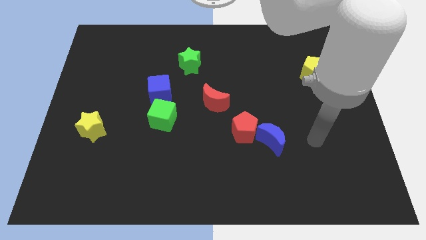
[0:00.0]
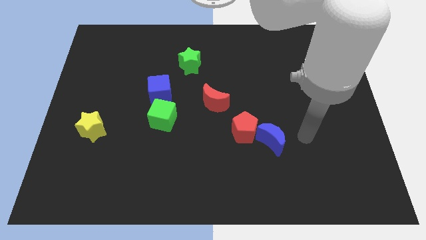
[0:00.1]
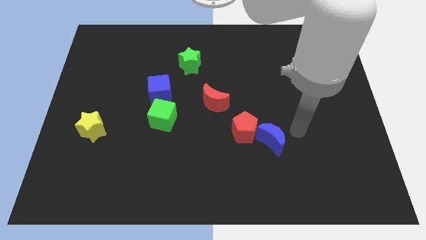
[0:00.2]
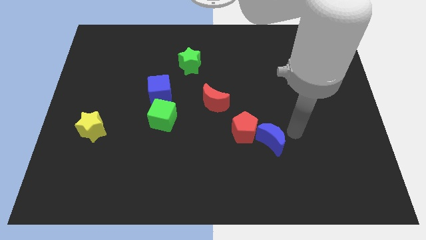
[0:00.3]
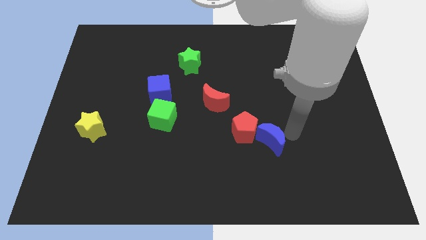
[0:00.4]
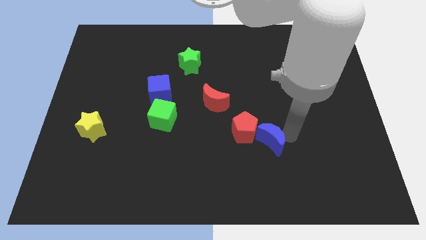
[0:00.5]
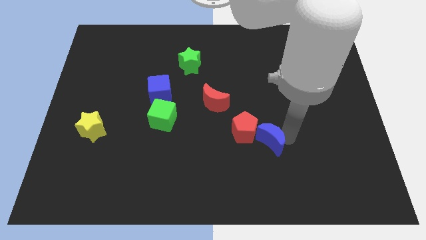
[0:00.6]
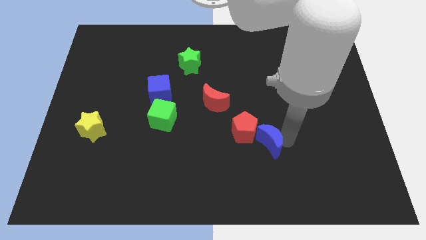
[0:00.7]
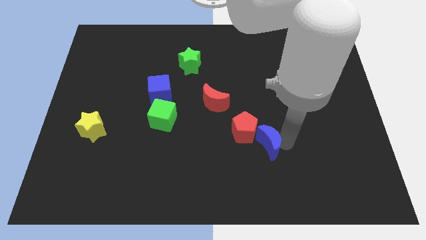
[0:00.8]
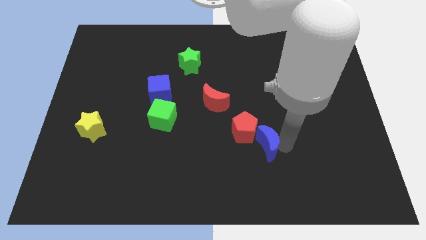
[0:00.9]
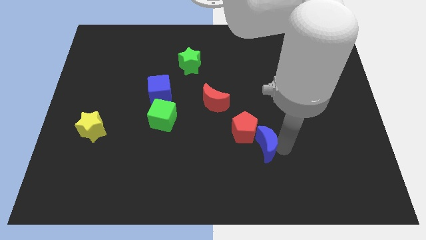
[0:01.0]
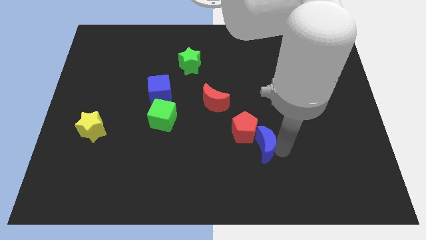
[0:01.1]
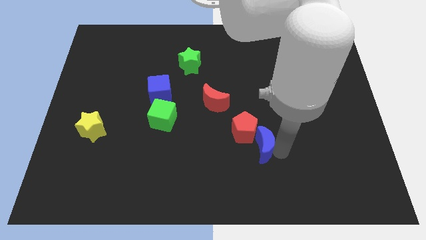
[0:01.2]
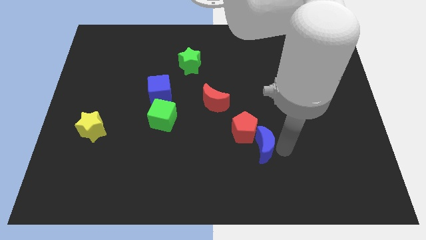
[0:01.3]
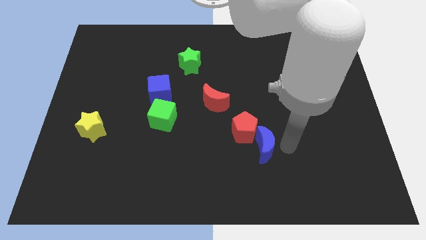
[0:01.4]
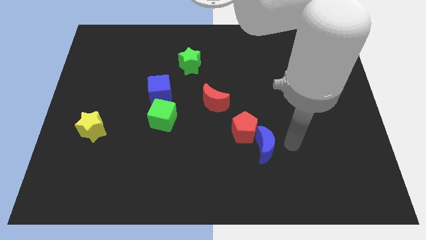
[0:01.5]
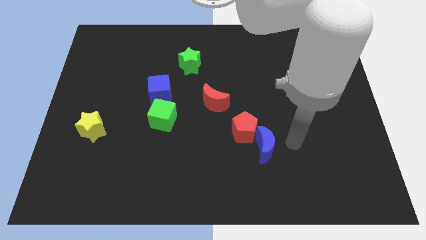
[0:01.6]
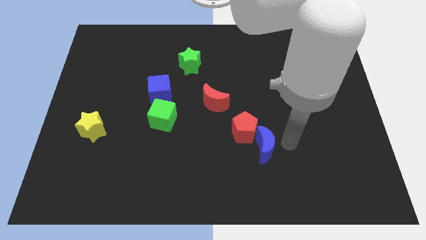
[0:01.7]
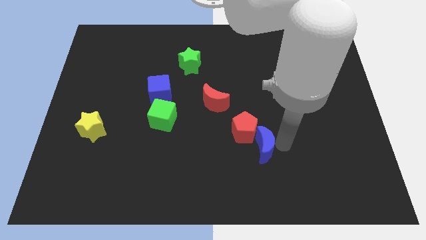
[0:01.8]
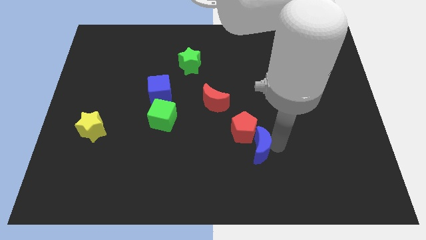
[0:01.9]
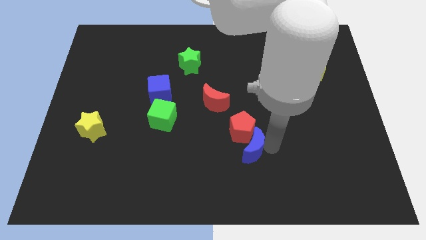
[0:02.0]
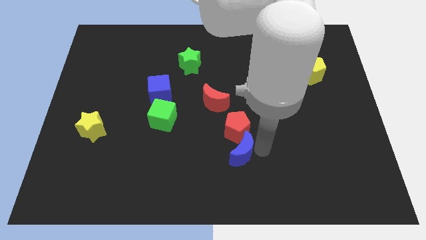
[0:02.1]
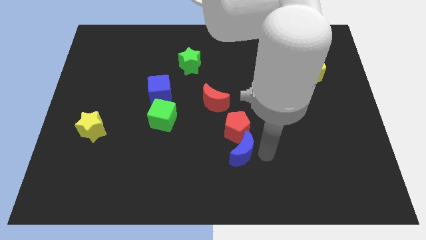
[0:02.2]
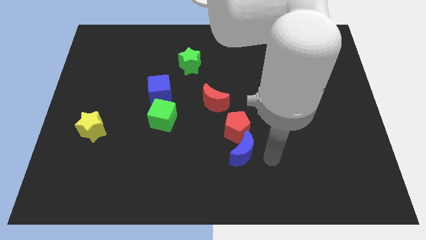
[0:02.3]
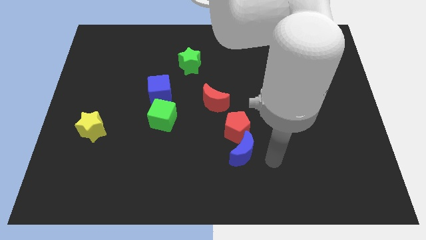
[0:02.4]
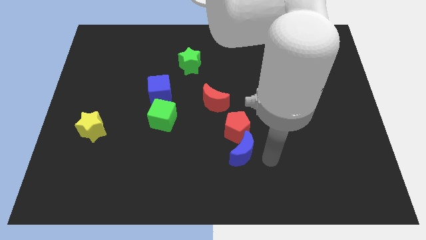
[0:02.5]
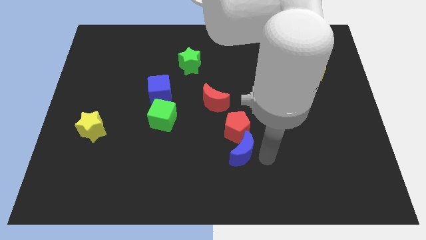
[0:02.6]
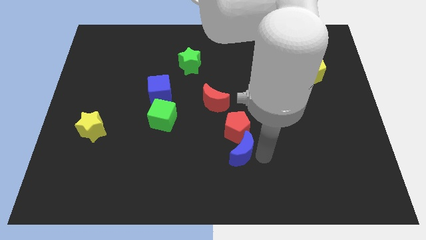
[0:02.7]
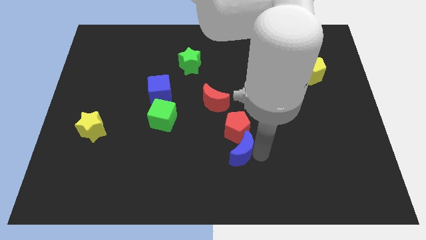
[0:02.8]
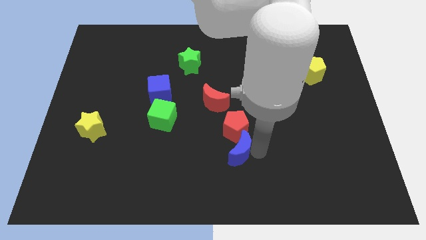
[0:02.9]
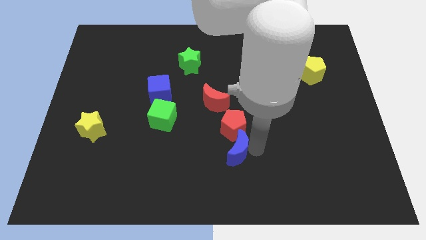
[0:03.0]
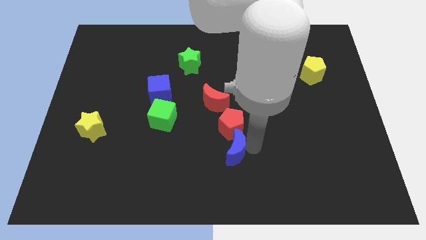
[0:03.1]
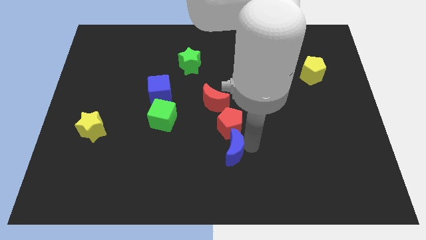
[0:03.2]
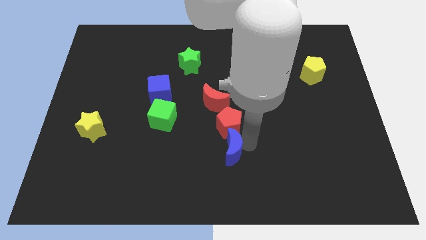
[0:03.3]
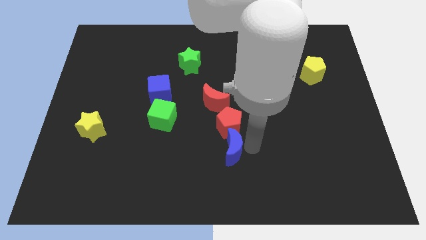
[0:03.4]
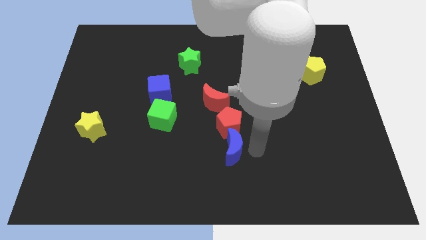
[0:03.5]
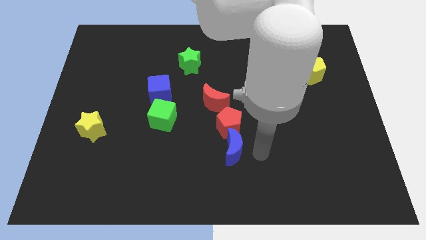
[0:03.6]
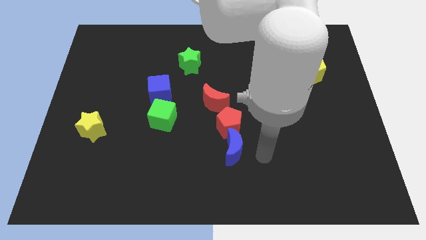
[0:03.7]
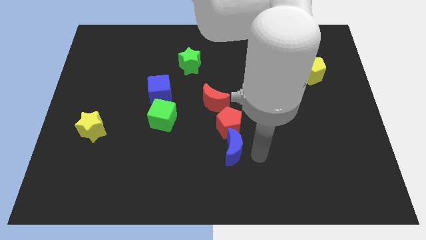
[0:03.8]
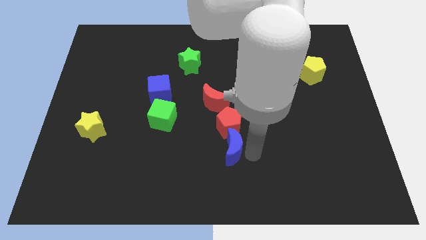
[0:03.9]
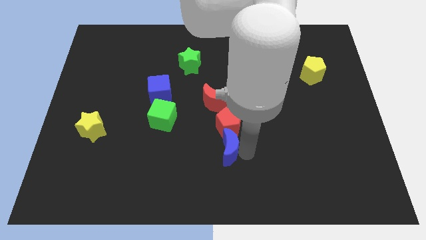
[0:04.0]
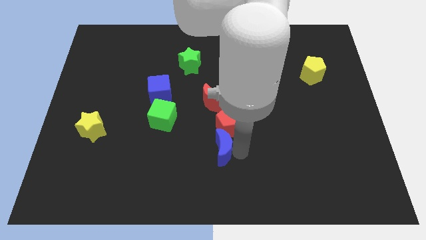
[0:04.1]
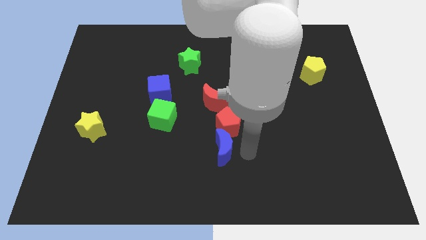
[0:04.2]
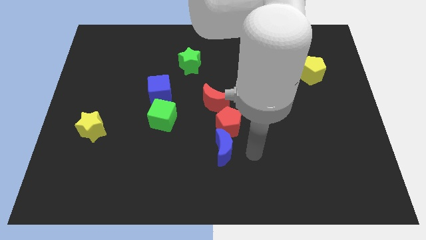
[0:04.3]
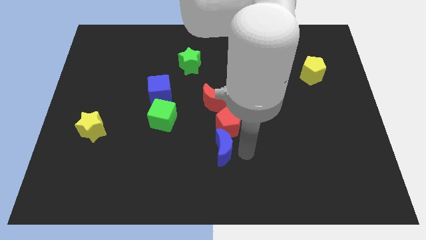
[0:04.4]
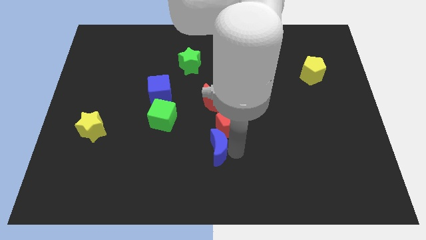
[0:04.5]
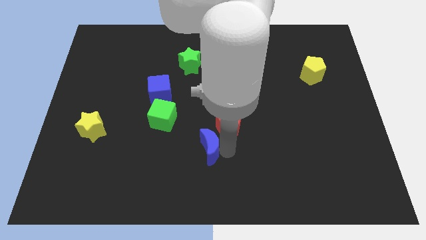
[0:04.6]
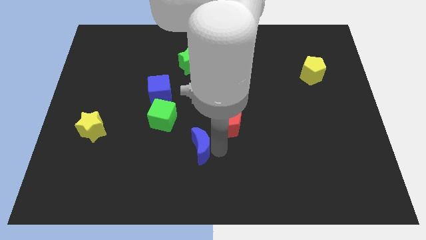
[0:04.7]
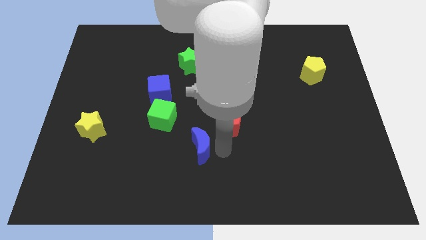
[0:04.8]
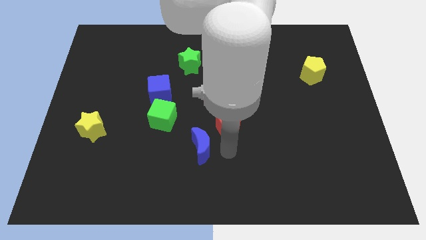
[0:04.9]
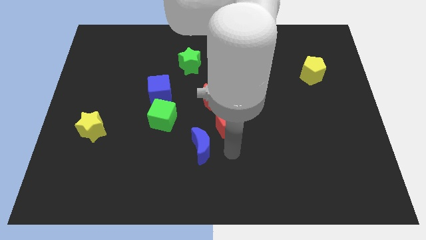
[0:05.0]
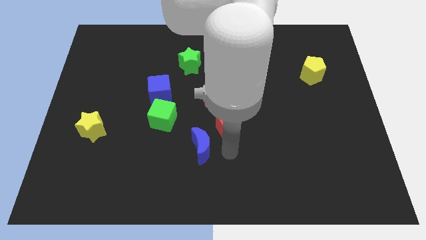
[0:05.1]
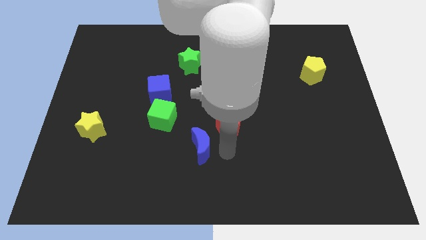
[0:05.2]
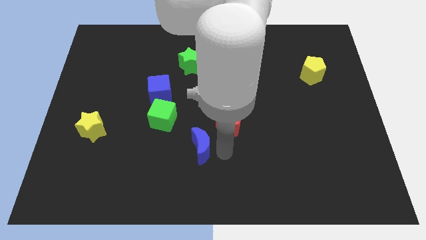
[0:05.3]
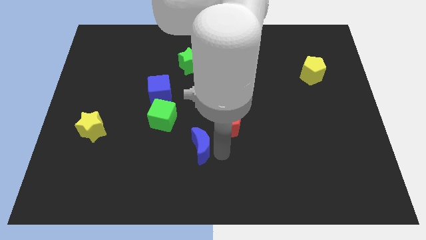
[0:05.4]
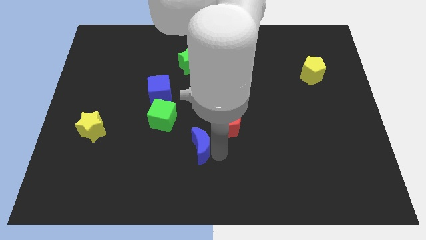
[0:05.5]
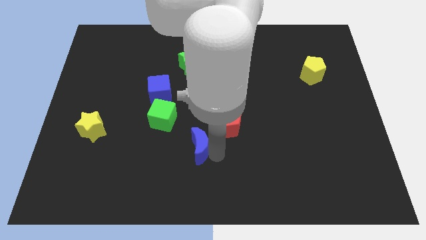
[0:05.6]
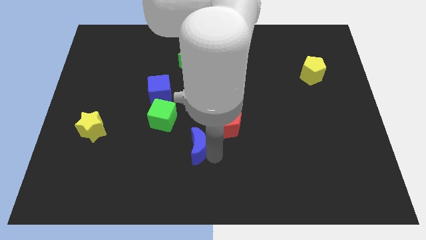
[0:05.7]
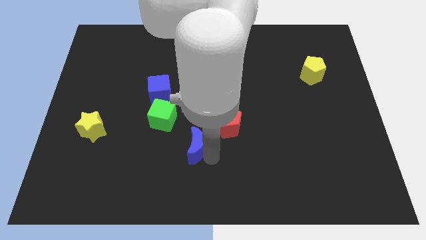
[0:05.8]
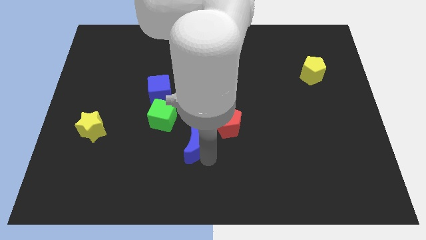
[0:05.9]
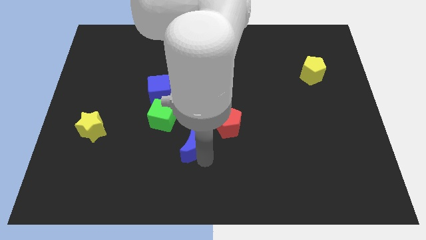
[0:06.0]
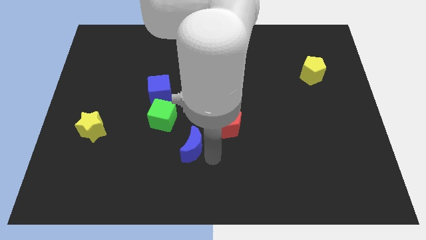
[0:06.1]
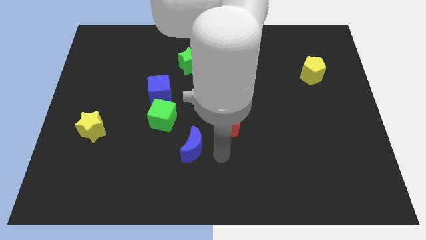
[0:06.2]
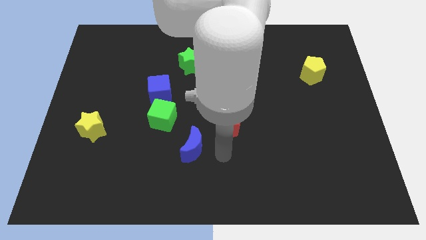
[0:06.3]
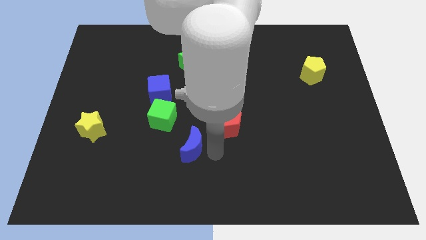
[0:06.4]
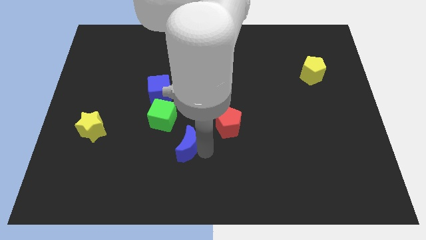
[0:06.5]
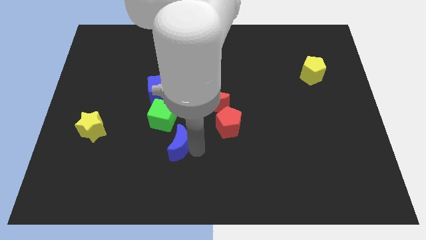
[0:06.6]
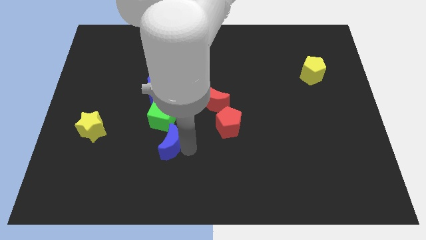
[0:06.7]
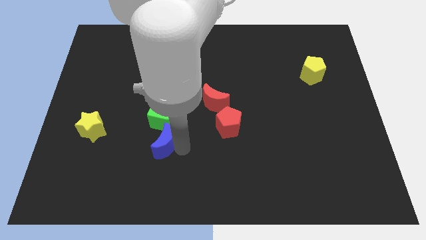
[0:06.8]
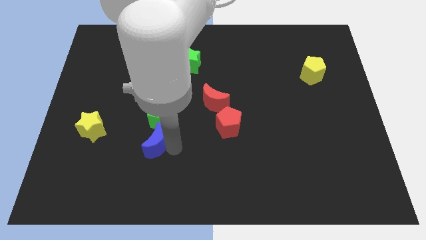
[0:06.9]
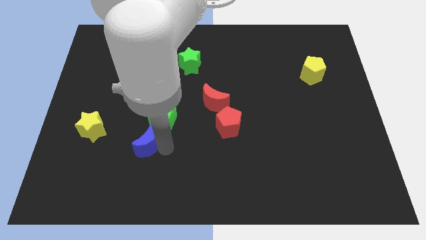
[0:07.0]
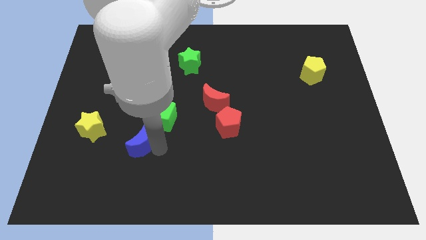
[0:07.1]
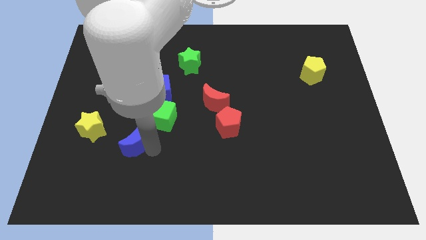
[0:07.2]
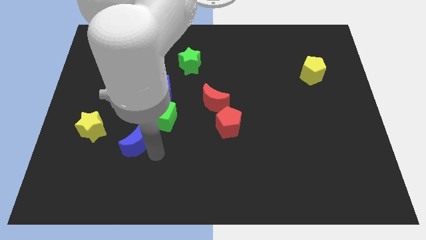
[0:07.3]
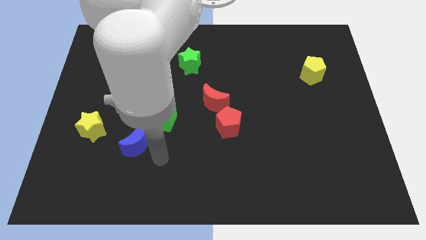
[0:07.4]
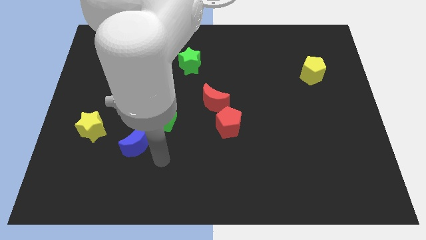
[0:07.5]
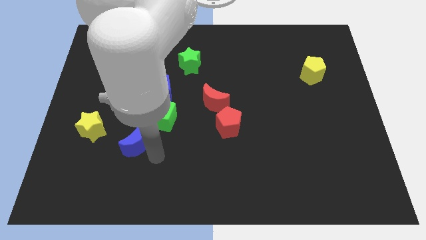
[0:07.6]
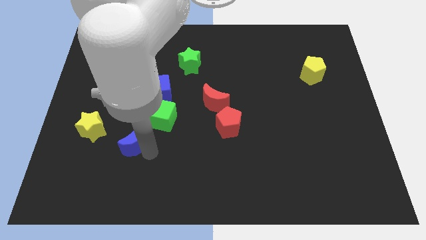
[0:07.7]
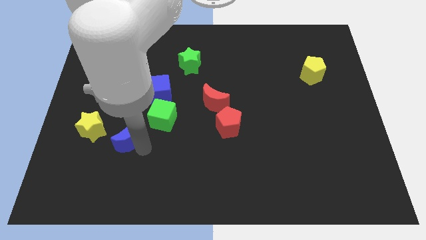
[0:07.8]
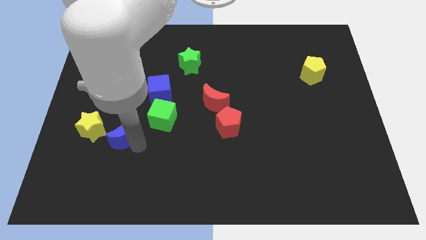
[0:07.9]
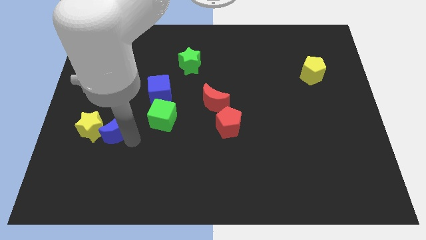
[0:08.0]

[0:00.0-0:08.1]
push the blue moon close to the yellow star
